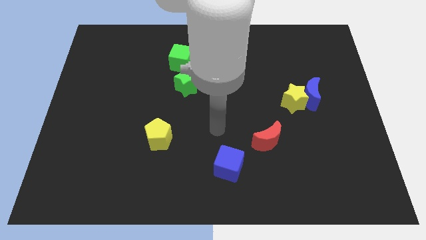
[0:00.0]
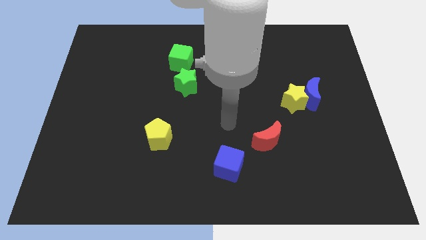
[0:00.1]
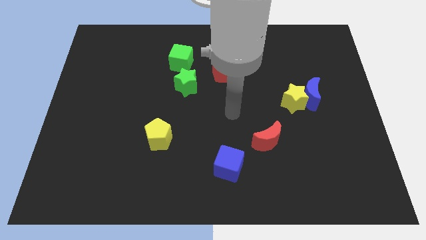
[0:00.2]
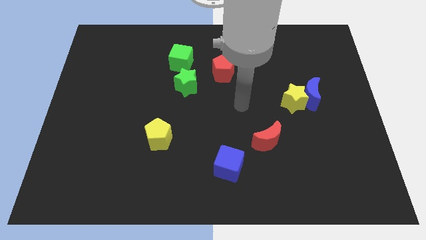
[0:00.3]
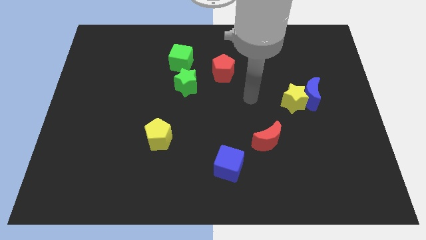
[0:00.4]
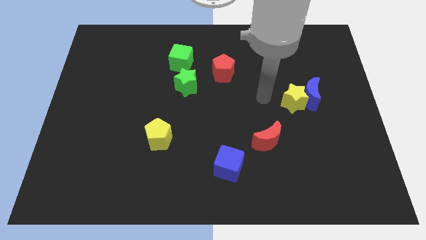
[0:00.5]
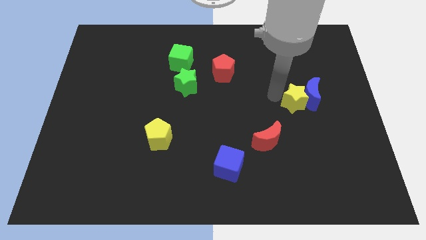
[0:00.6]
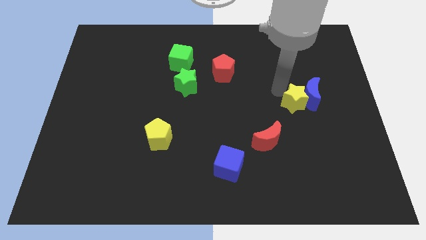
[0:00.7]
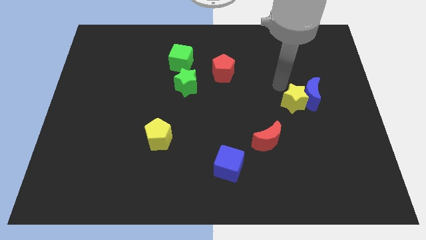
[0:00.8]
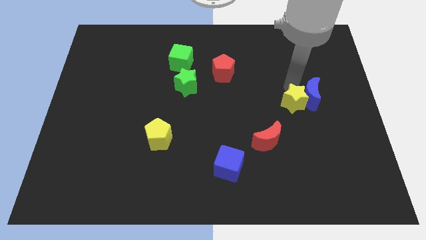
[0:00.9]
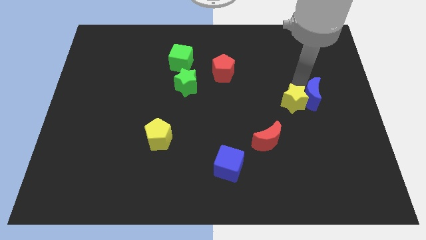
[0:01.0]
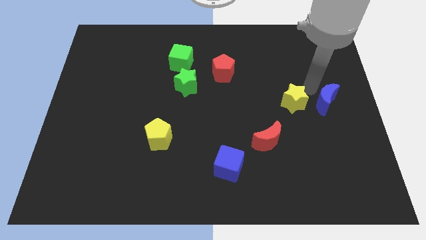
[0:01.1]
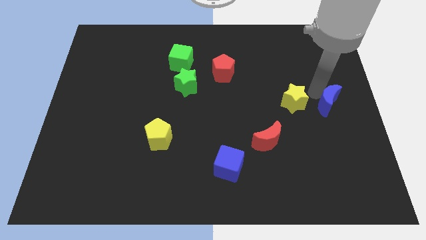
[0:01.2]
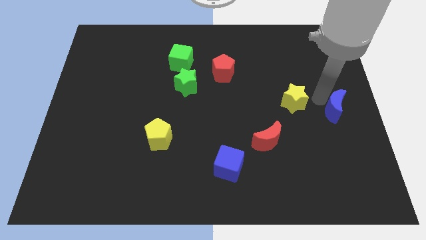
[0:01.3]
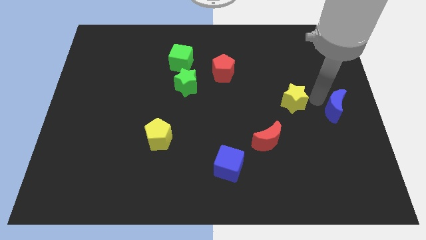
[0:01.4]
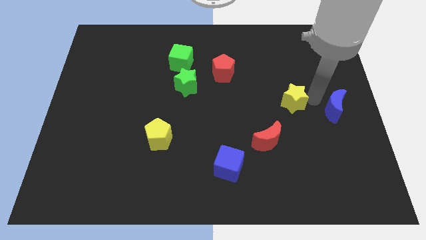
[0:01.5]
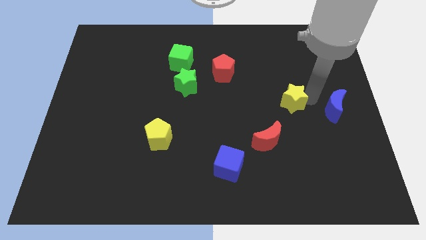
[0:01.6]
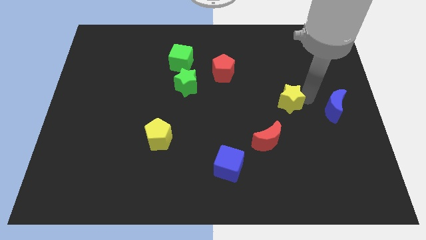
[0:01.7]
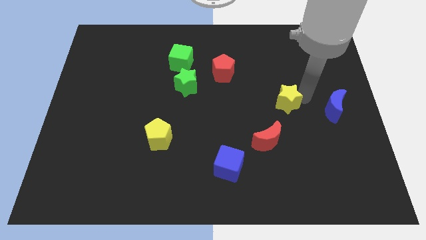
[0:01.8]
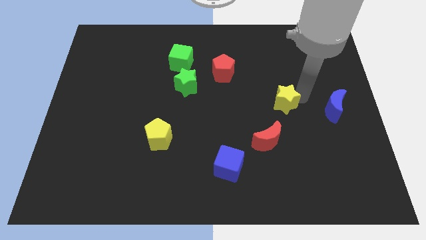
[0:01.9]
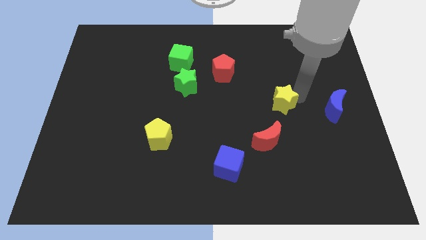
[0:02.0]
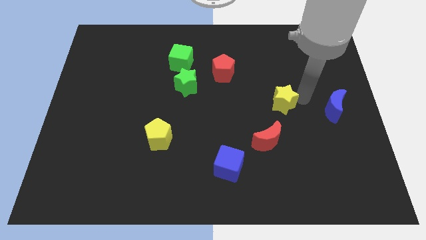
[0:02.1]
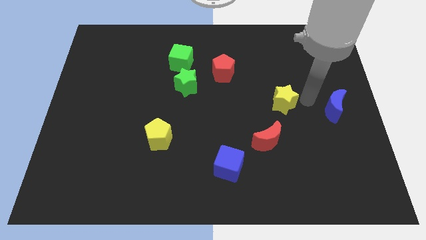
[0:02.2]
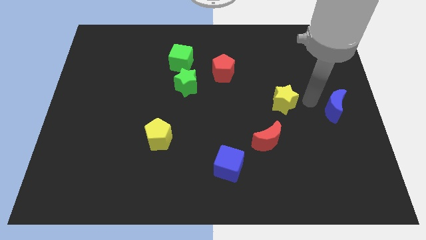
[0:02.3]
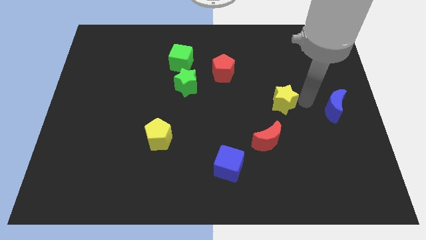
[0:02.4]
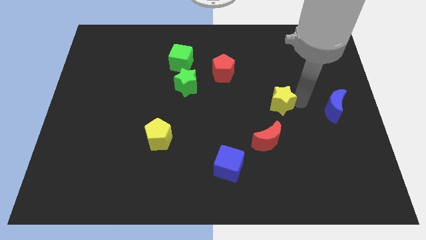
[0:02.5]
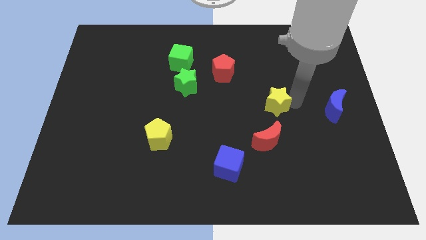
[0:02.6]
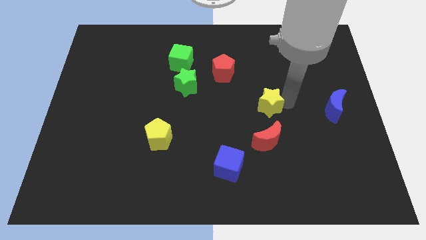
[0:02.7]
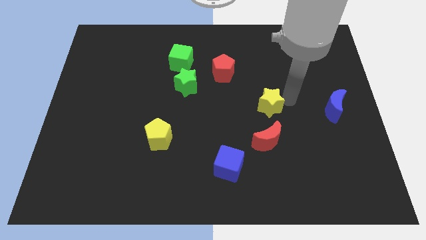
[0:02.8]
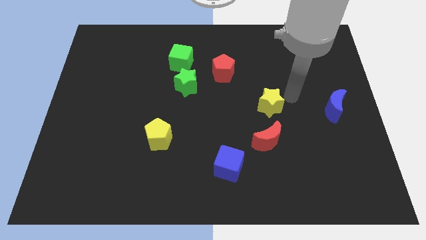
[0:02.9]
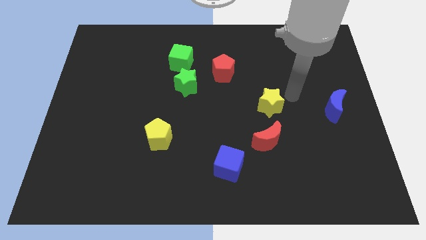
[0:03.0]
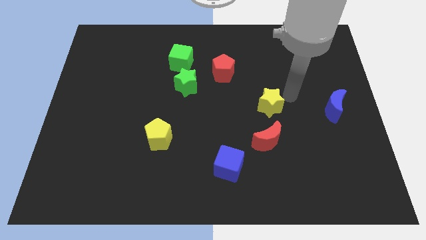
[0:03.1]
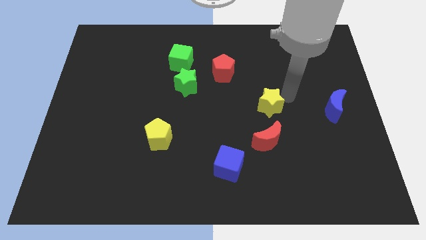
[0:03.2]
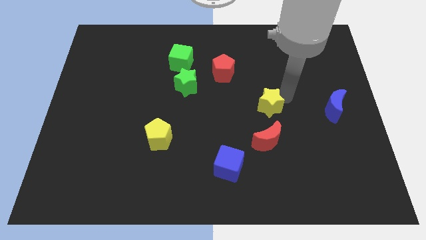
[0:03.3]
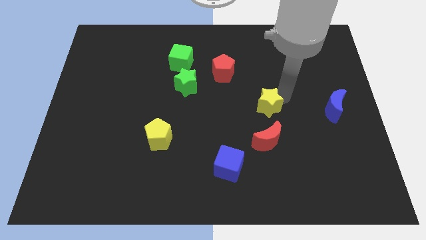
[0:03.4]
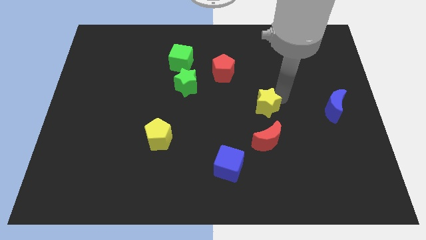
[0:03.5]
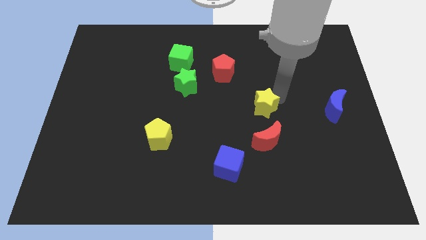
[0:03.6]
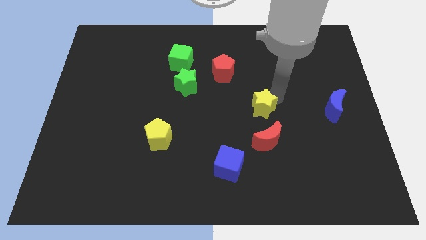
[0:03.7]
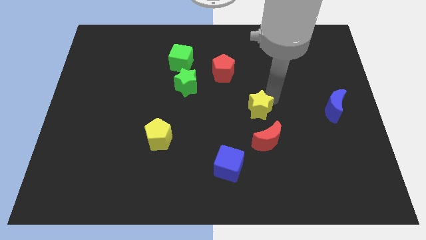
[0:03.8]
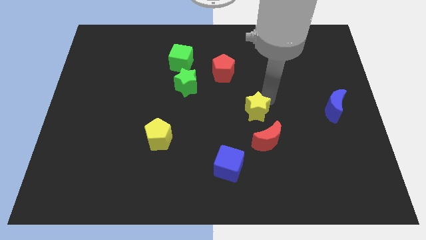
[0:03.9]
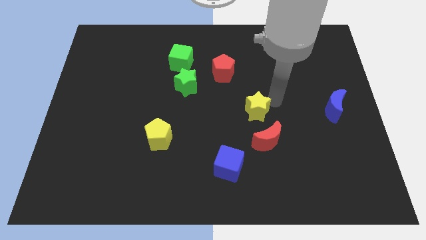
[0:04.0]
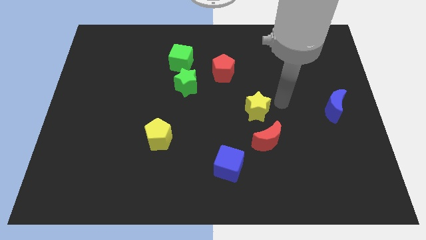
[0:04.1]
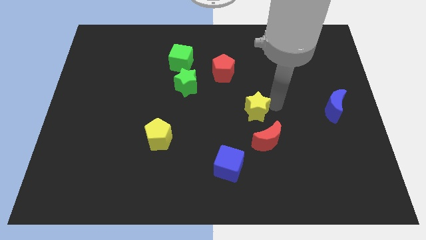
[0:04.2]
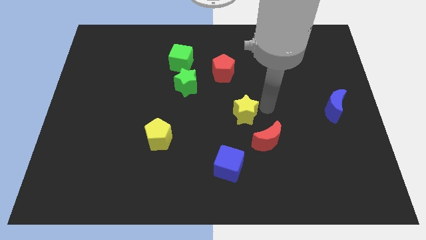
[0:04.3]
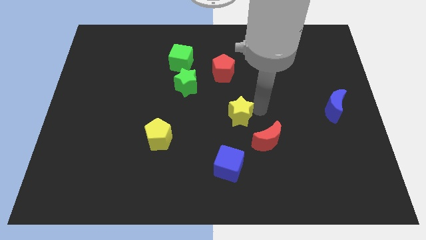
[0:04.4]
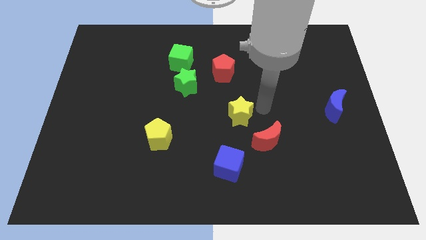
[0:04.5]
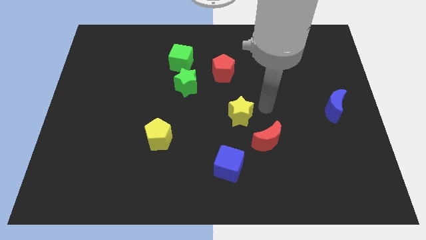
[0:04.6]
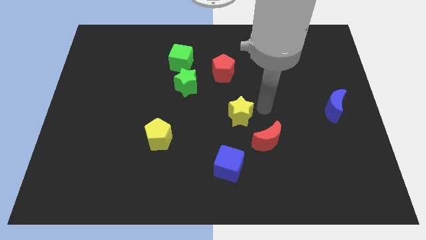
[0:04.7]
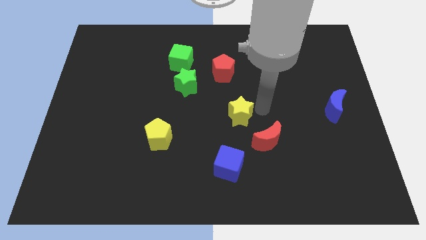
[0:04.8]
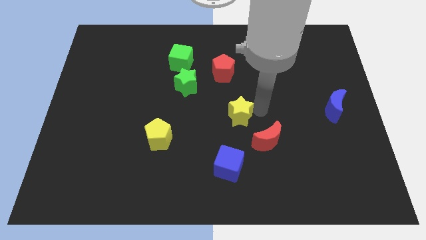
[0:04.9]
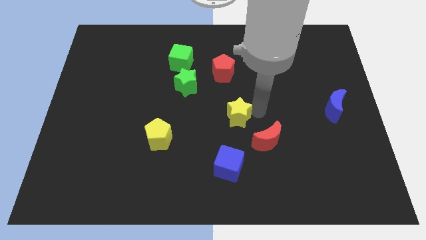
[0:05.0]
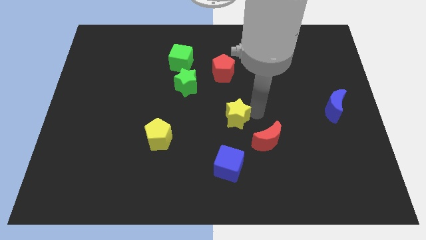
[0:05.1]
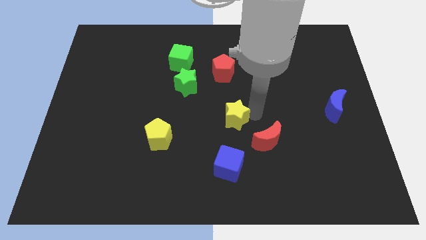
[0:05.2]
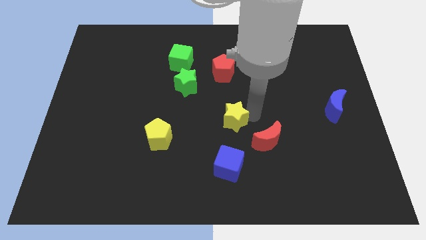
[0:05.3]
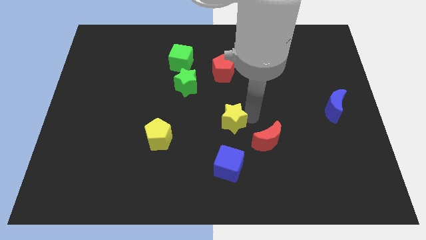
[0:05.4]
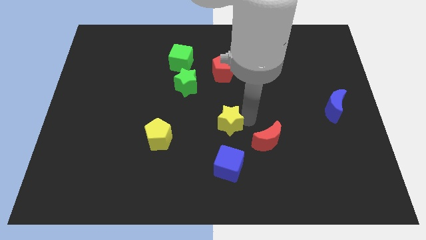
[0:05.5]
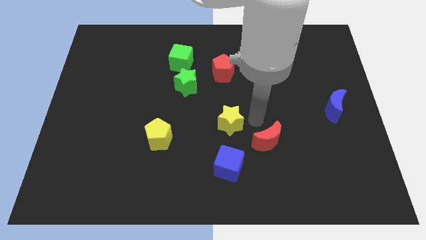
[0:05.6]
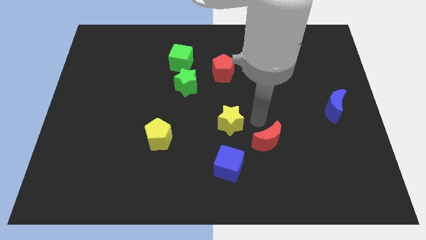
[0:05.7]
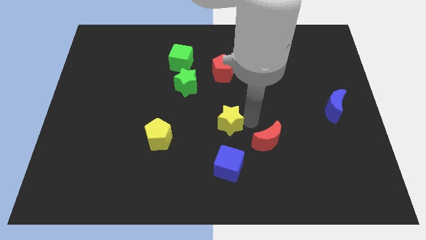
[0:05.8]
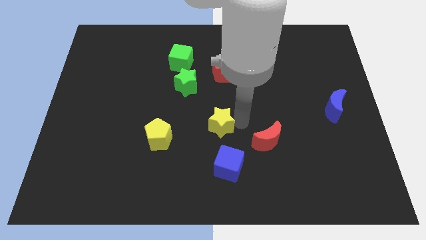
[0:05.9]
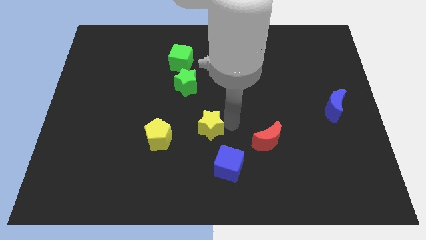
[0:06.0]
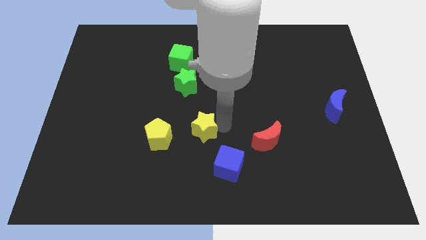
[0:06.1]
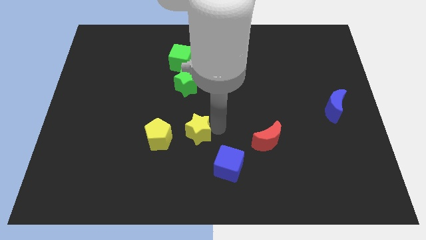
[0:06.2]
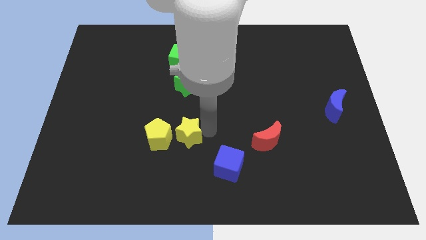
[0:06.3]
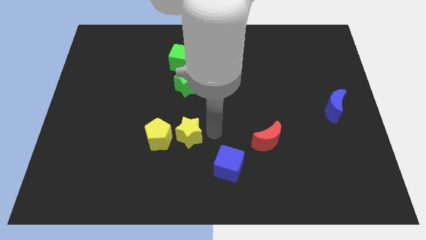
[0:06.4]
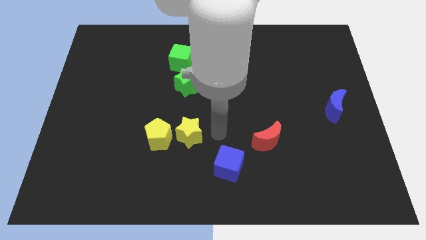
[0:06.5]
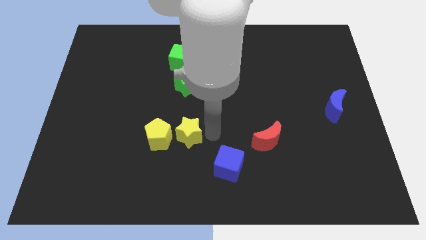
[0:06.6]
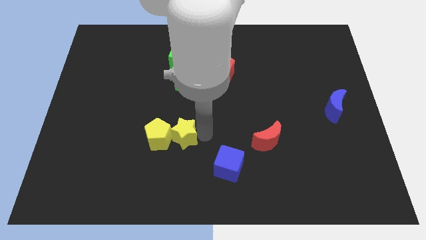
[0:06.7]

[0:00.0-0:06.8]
put the yellow star close to the yellow pentagon
